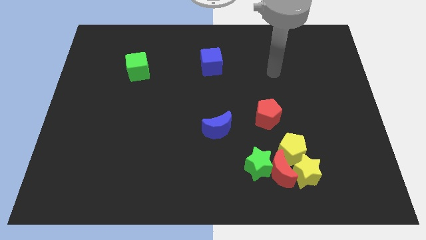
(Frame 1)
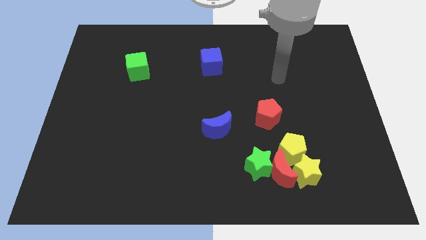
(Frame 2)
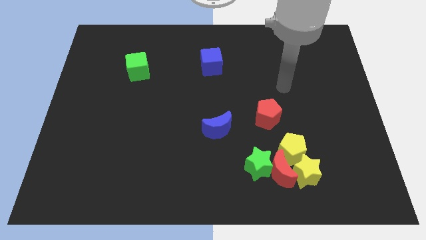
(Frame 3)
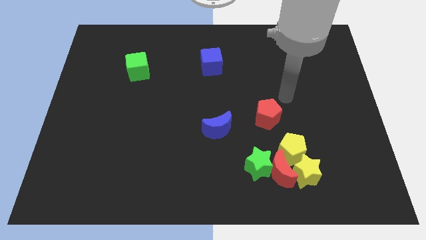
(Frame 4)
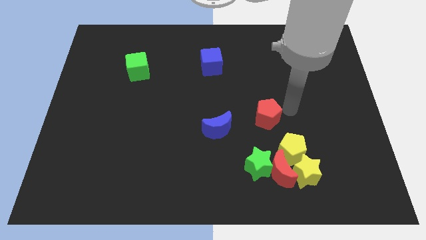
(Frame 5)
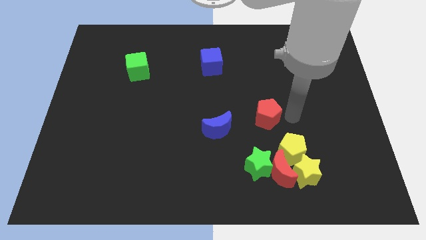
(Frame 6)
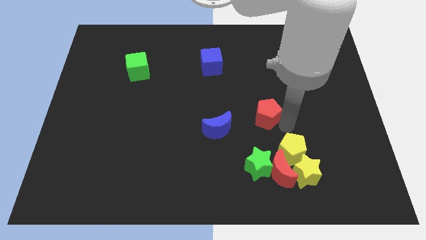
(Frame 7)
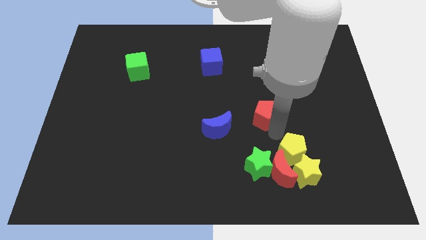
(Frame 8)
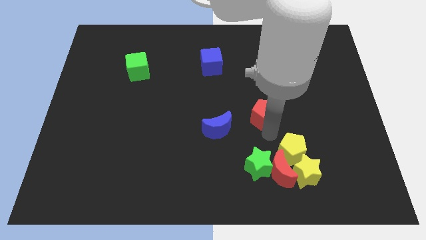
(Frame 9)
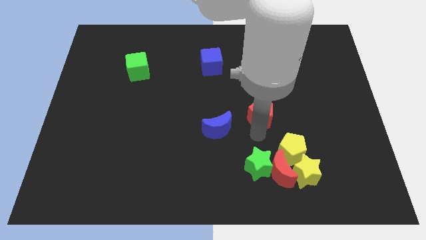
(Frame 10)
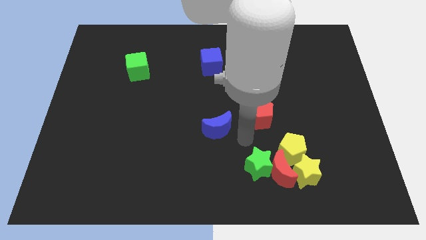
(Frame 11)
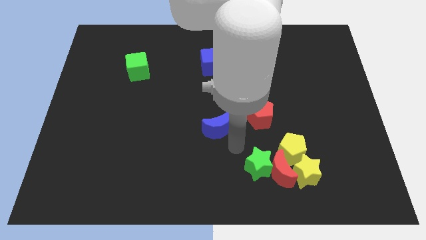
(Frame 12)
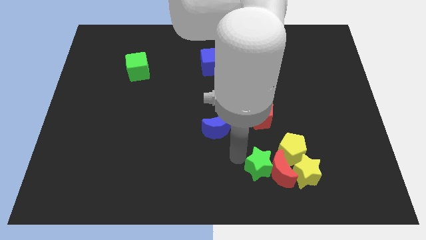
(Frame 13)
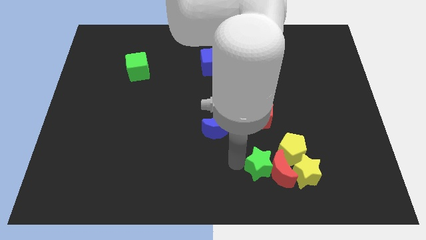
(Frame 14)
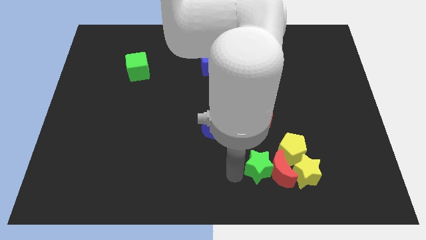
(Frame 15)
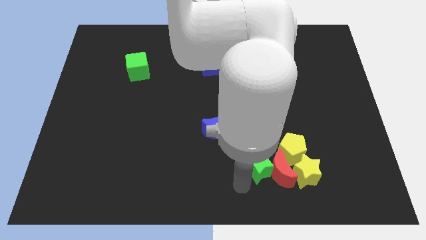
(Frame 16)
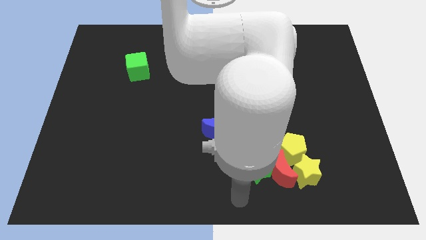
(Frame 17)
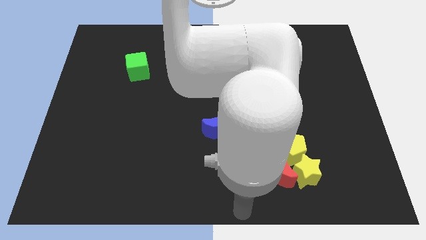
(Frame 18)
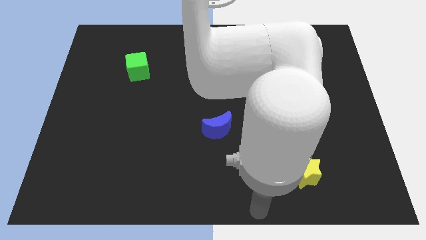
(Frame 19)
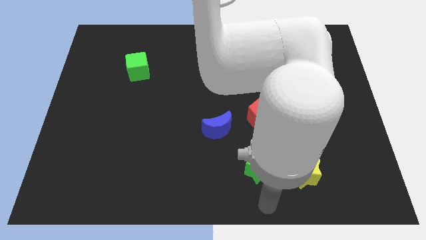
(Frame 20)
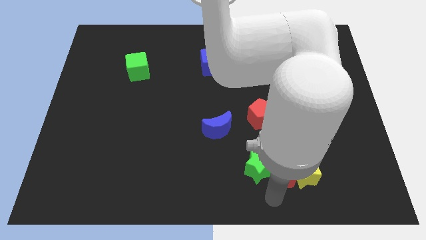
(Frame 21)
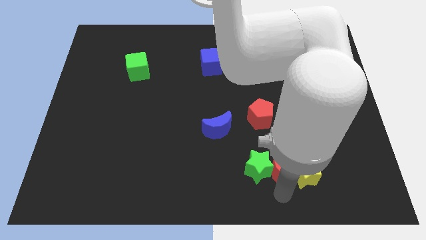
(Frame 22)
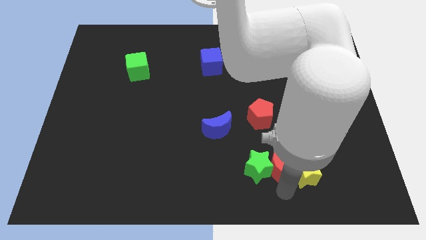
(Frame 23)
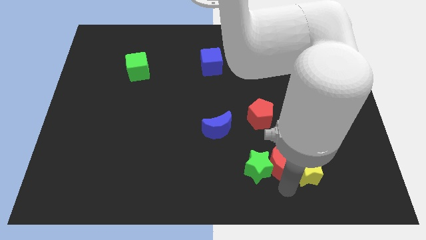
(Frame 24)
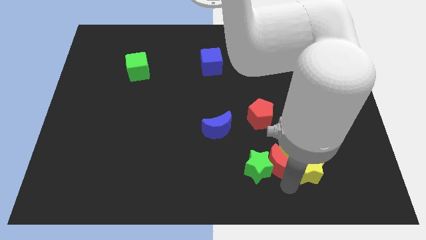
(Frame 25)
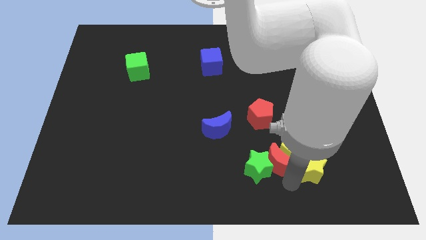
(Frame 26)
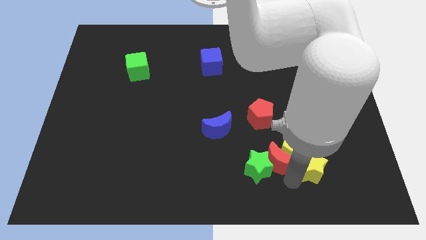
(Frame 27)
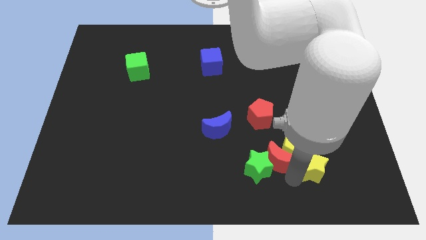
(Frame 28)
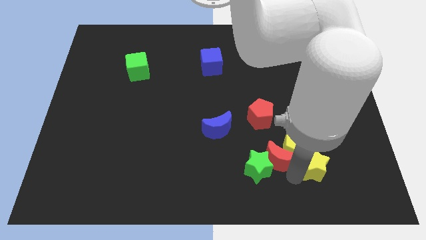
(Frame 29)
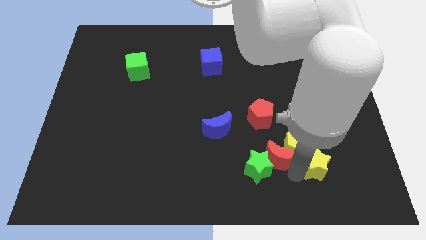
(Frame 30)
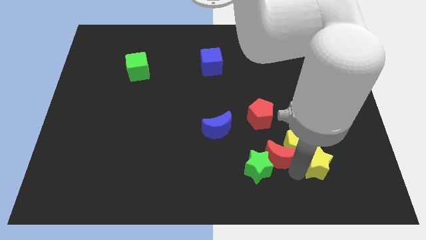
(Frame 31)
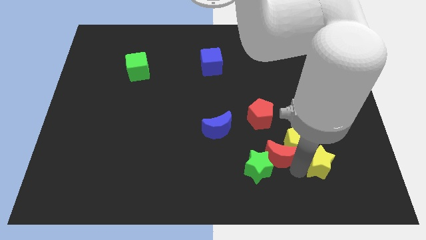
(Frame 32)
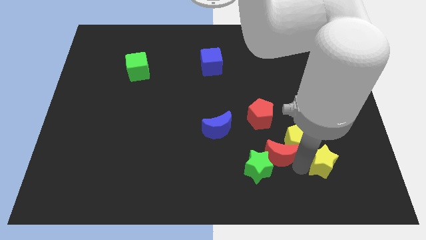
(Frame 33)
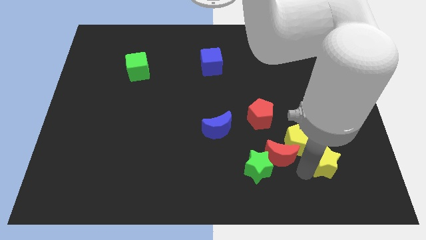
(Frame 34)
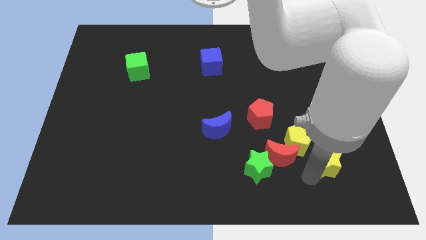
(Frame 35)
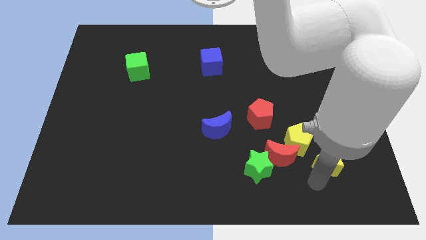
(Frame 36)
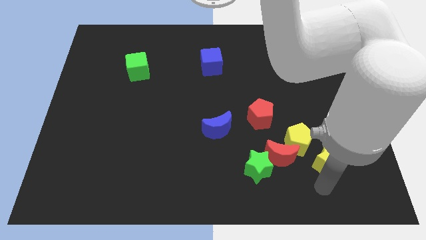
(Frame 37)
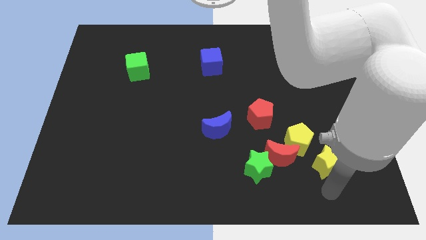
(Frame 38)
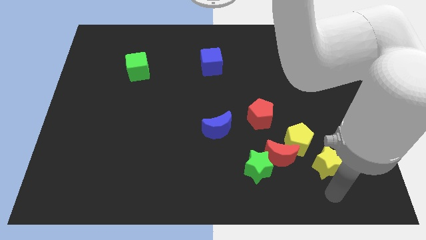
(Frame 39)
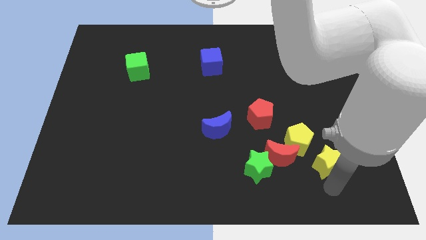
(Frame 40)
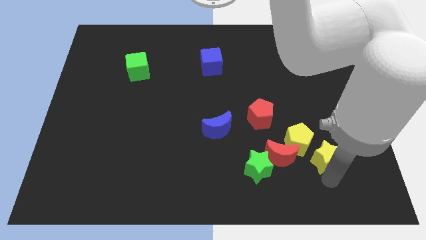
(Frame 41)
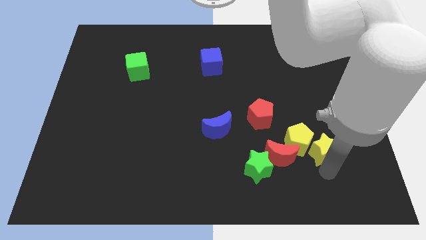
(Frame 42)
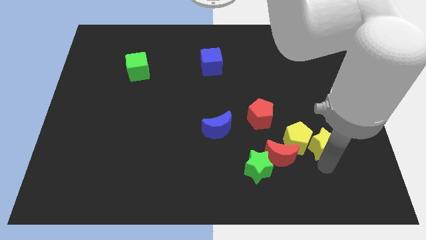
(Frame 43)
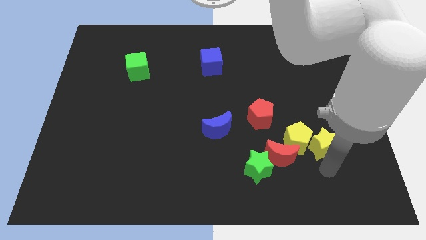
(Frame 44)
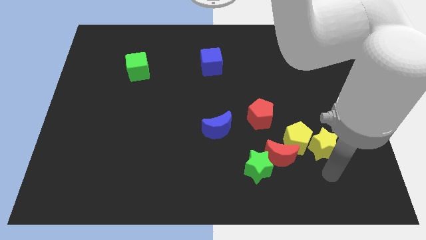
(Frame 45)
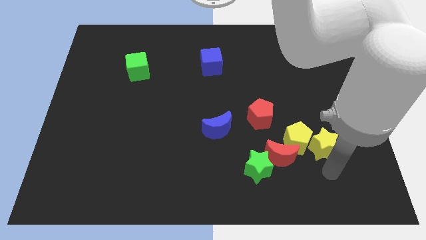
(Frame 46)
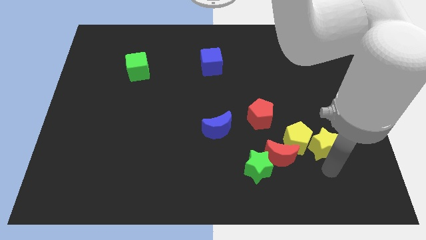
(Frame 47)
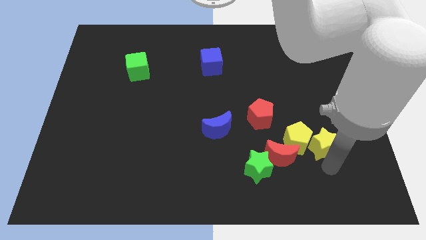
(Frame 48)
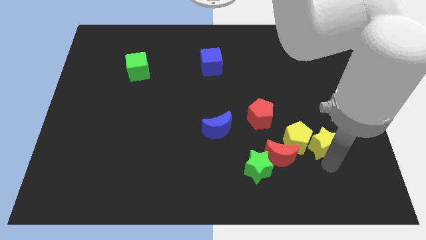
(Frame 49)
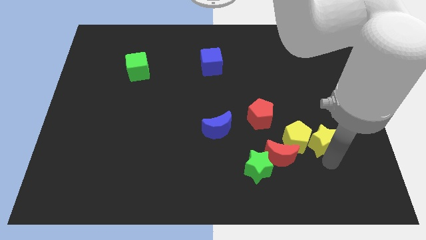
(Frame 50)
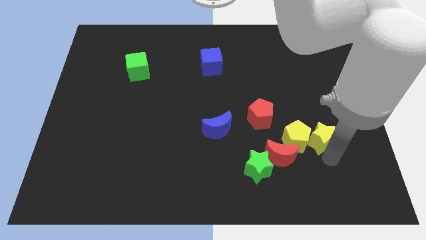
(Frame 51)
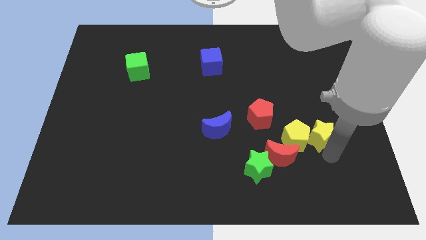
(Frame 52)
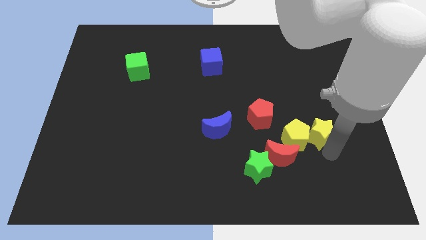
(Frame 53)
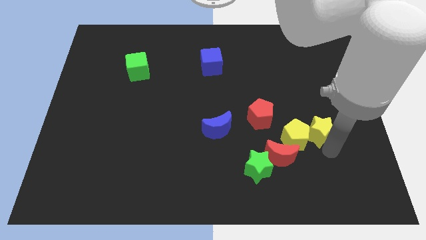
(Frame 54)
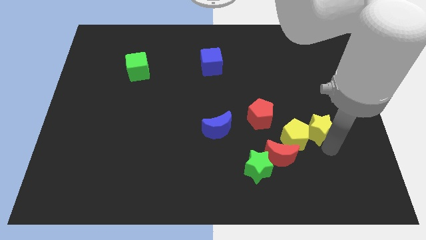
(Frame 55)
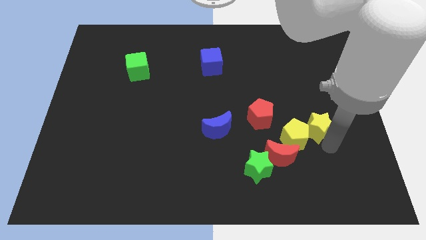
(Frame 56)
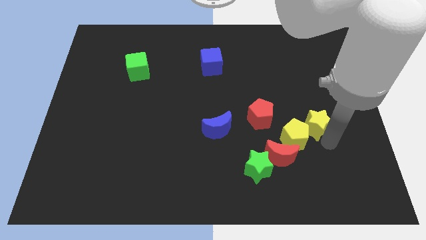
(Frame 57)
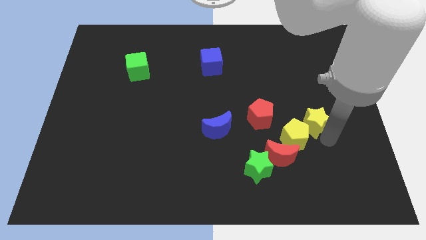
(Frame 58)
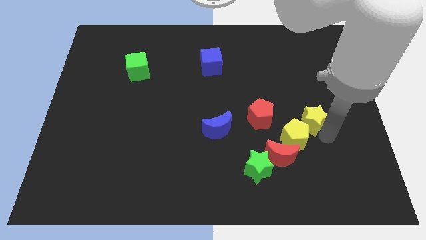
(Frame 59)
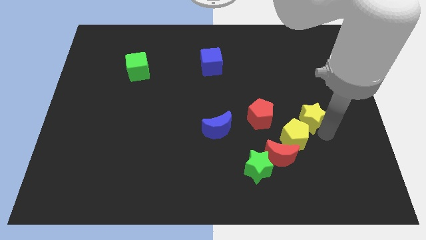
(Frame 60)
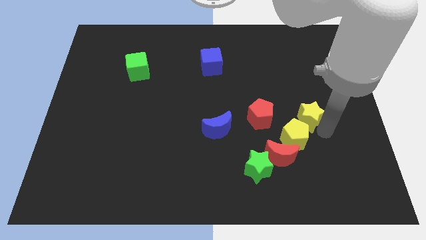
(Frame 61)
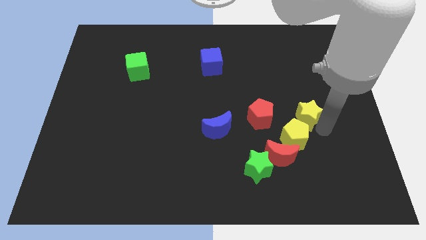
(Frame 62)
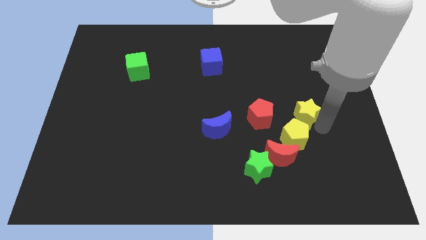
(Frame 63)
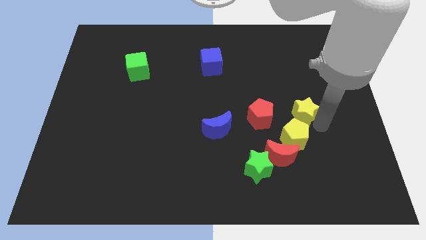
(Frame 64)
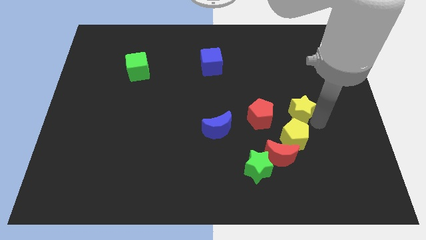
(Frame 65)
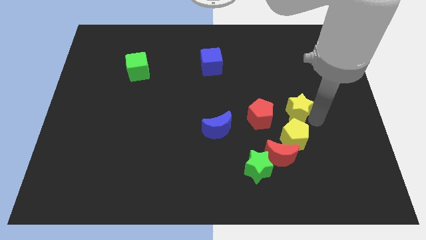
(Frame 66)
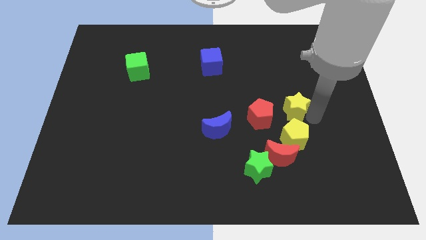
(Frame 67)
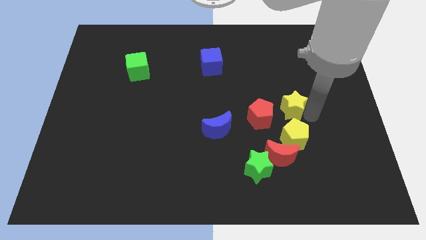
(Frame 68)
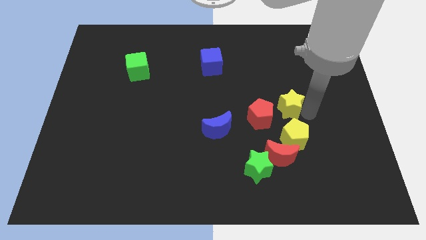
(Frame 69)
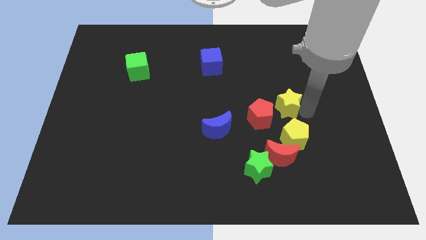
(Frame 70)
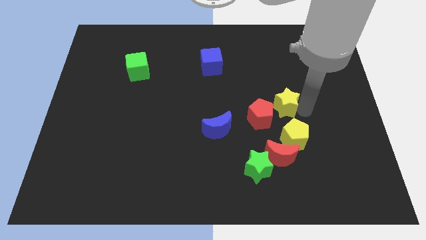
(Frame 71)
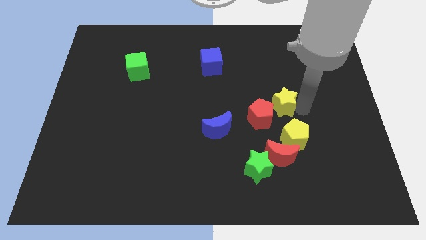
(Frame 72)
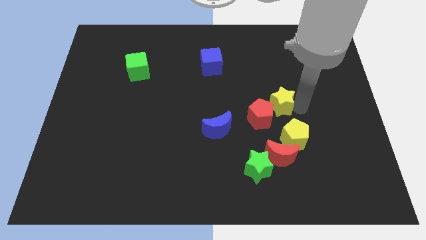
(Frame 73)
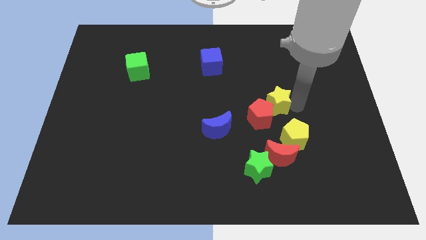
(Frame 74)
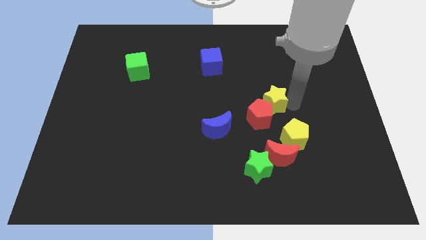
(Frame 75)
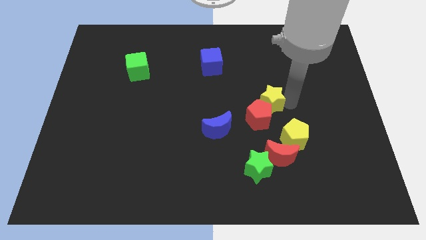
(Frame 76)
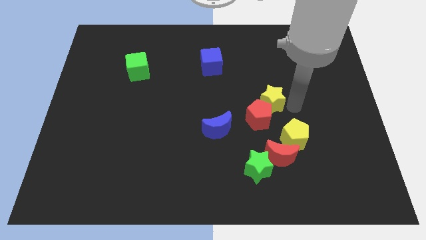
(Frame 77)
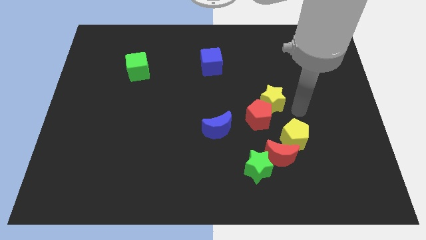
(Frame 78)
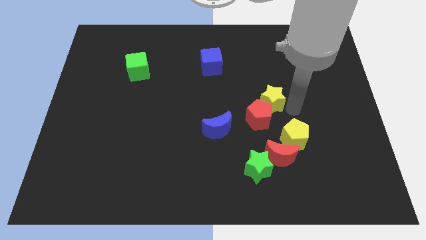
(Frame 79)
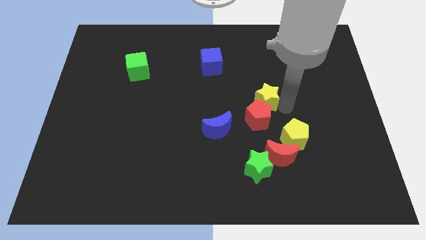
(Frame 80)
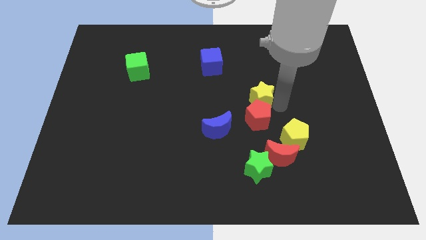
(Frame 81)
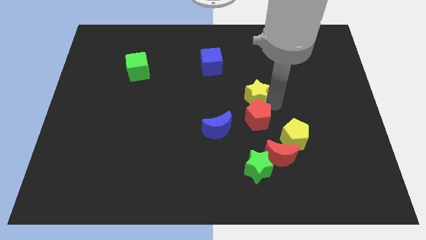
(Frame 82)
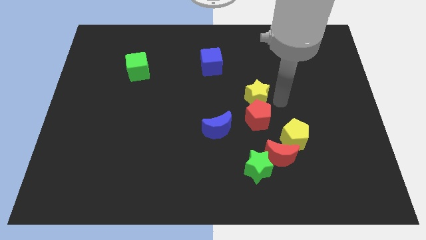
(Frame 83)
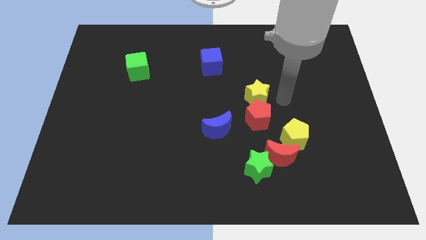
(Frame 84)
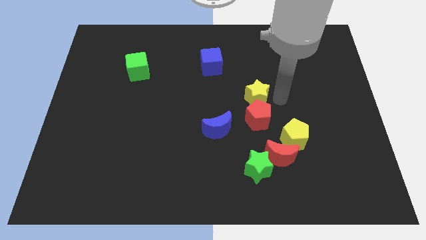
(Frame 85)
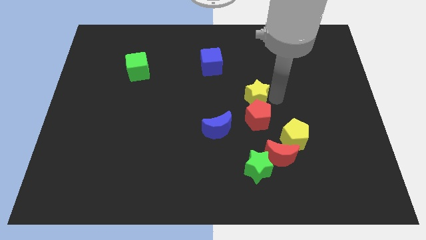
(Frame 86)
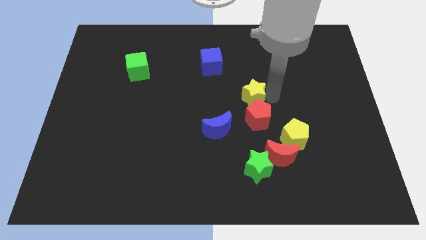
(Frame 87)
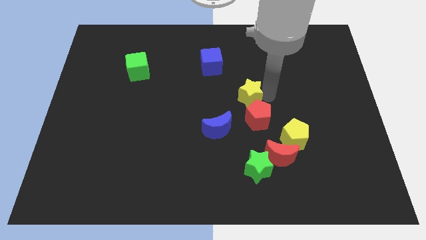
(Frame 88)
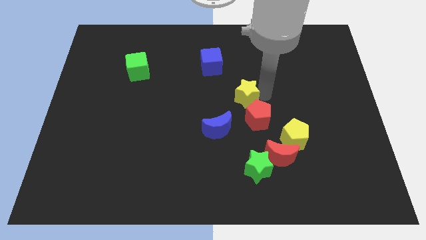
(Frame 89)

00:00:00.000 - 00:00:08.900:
slide the yellow star up and to the left diagonally
